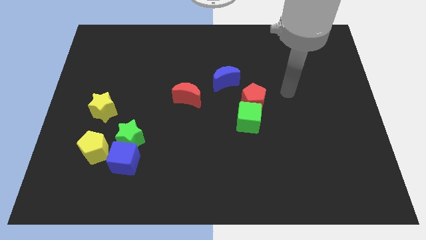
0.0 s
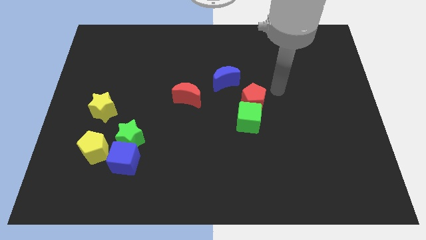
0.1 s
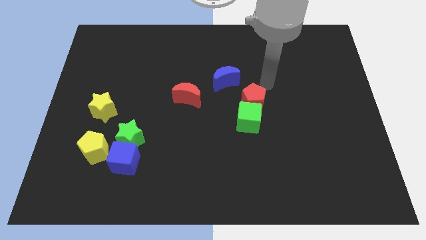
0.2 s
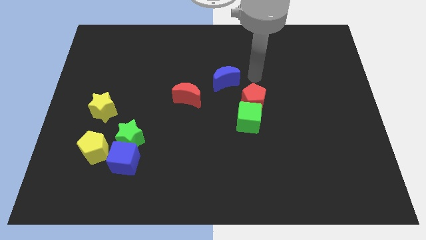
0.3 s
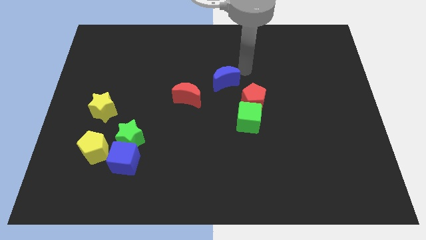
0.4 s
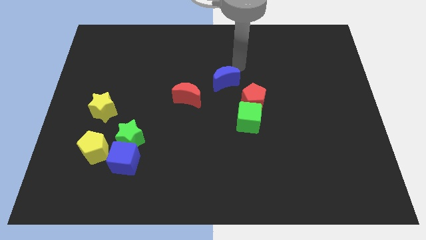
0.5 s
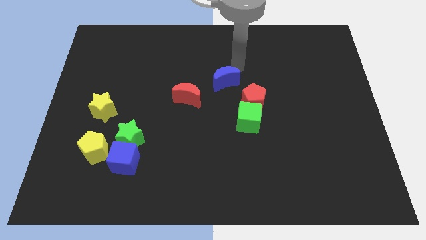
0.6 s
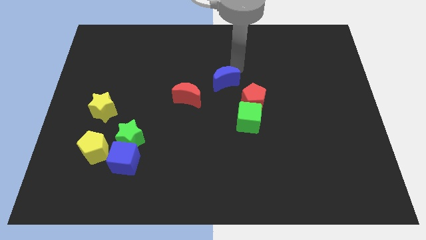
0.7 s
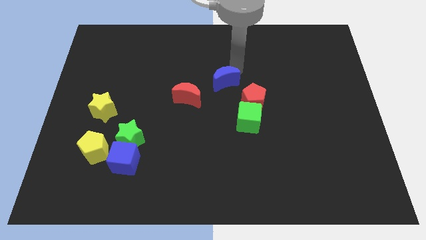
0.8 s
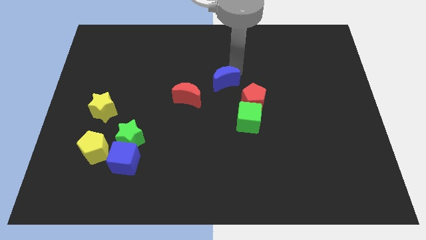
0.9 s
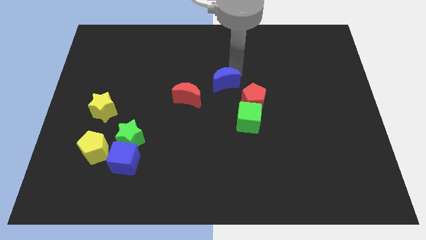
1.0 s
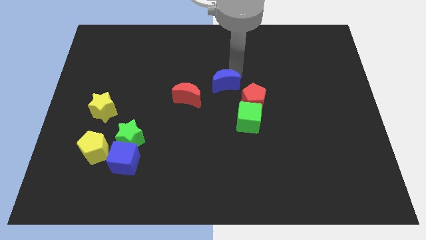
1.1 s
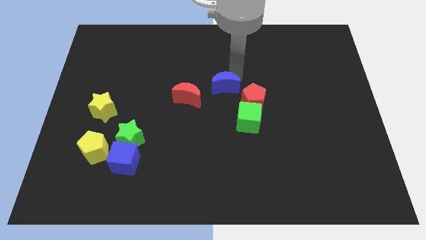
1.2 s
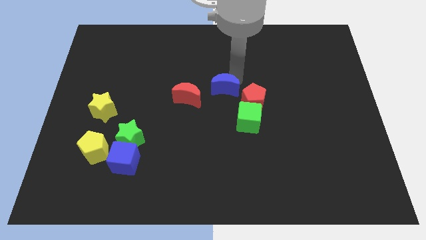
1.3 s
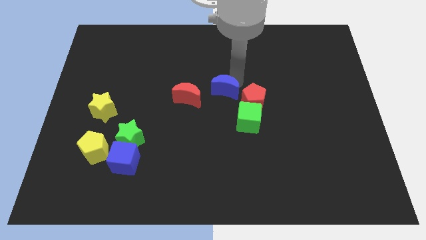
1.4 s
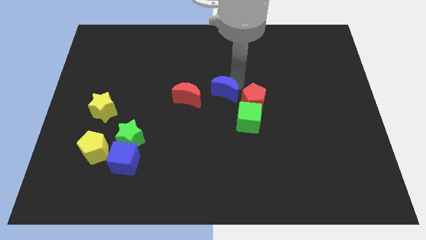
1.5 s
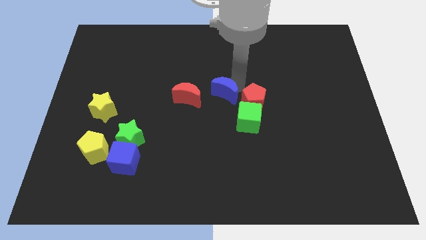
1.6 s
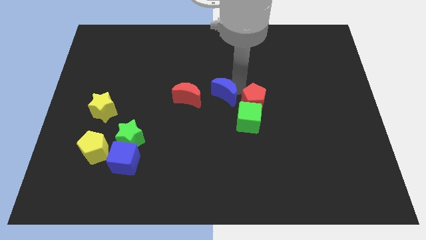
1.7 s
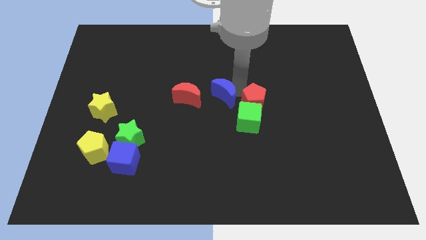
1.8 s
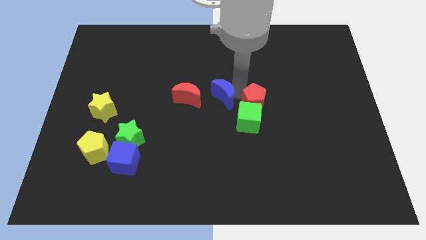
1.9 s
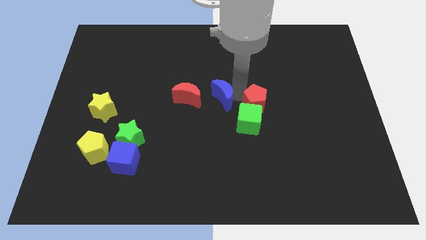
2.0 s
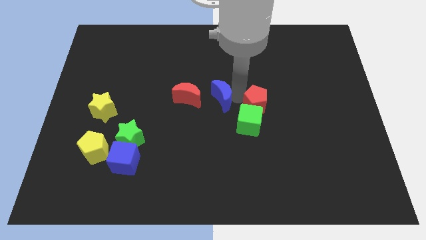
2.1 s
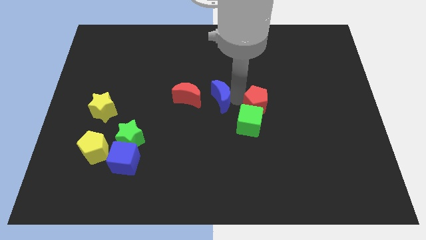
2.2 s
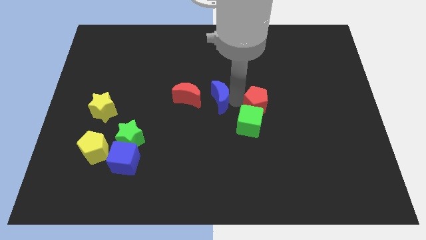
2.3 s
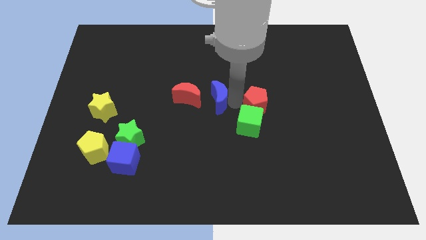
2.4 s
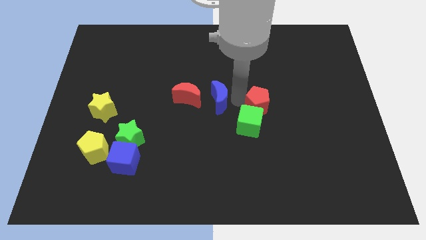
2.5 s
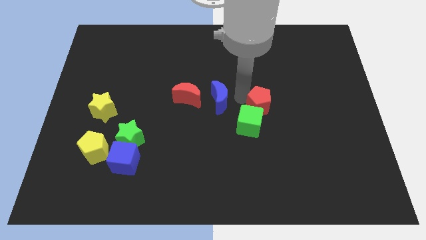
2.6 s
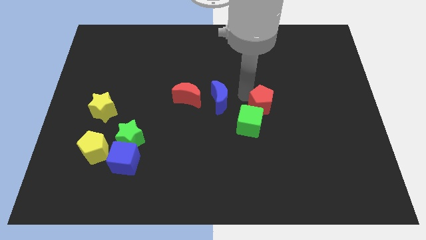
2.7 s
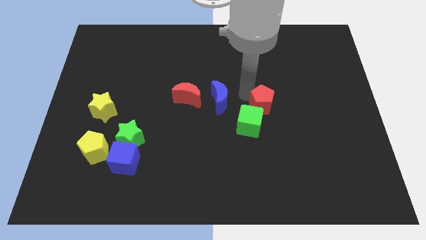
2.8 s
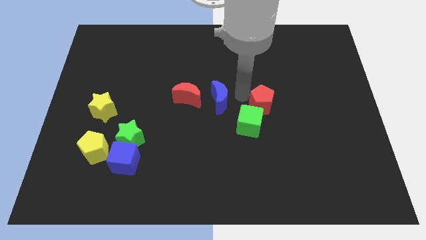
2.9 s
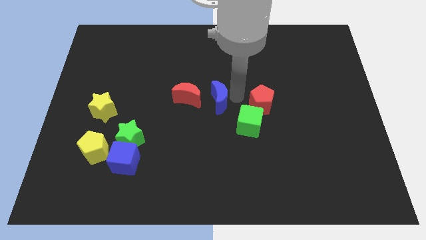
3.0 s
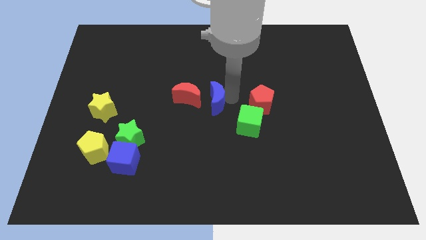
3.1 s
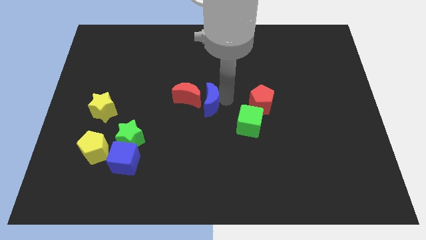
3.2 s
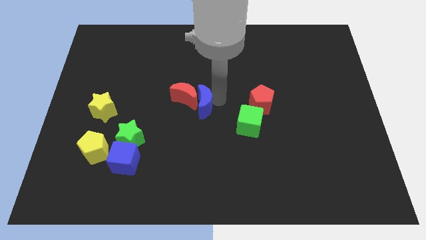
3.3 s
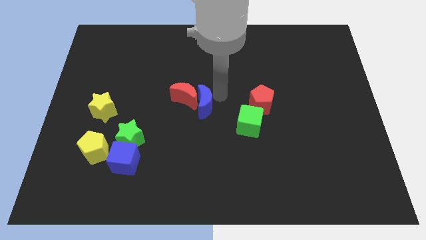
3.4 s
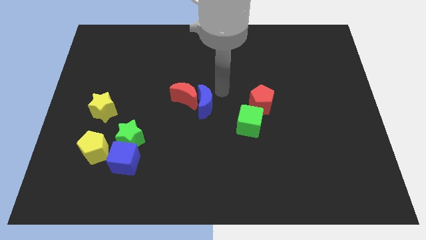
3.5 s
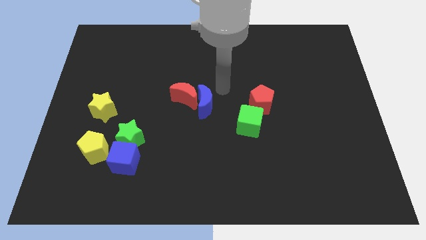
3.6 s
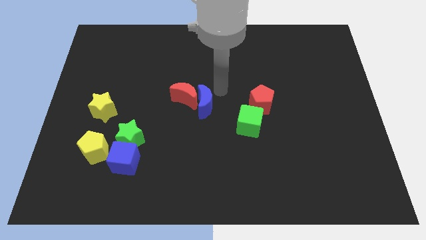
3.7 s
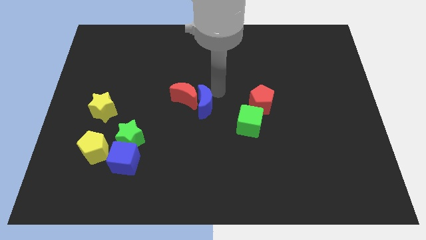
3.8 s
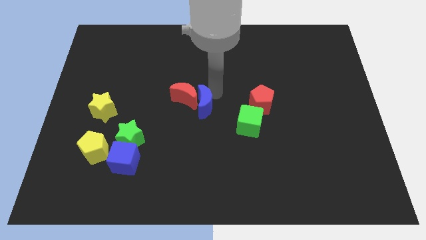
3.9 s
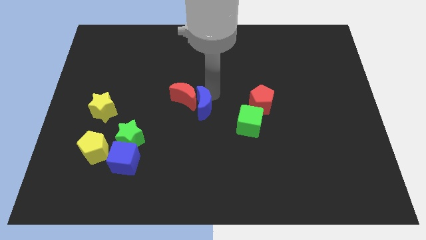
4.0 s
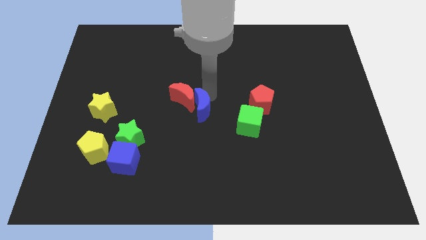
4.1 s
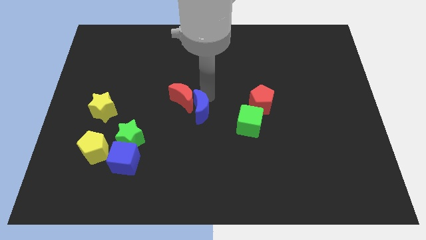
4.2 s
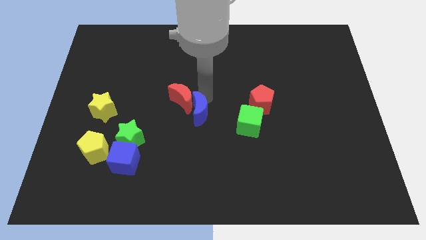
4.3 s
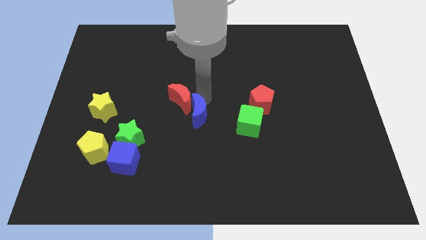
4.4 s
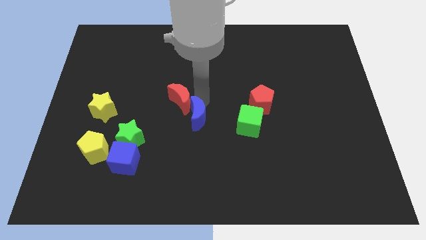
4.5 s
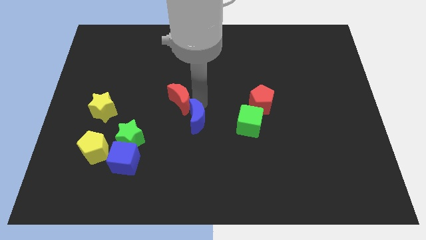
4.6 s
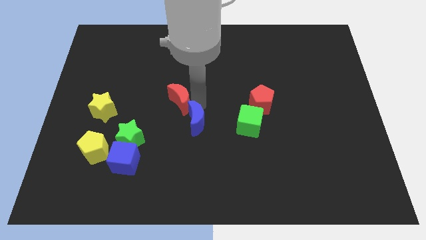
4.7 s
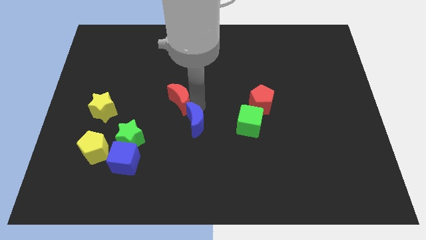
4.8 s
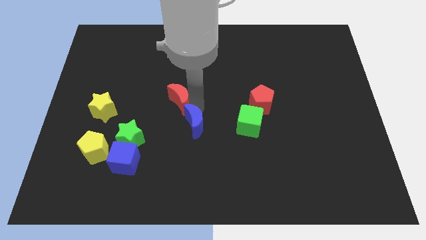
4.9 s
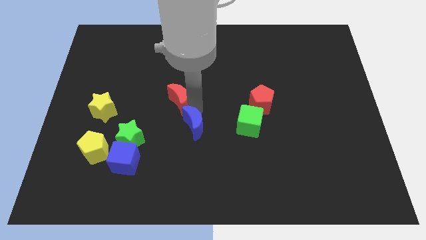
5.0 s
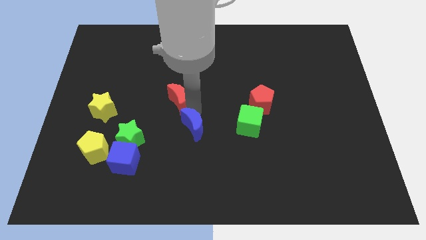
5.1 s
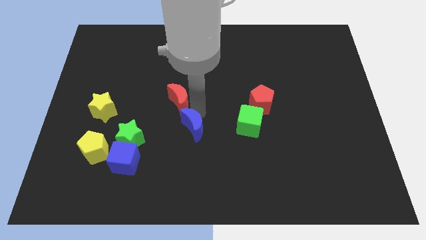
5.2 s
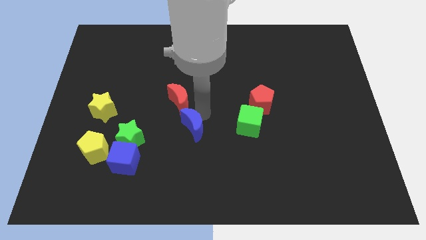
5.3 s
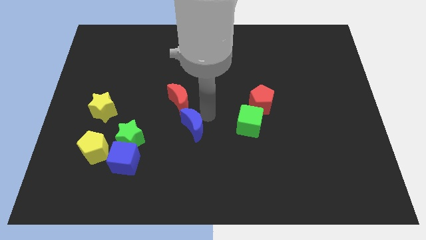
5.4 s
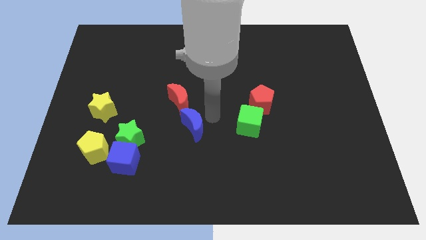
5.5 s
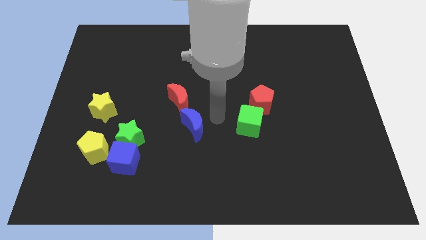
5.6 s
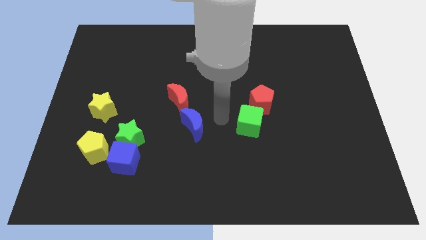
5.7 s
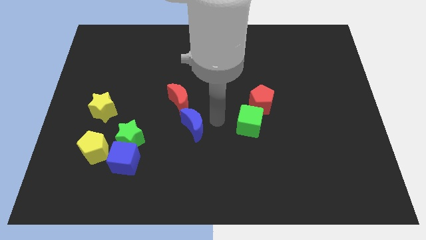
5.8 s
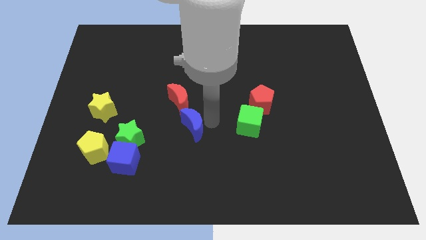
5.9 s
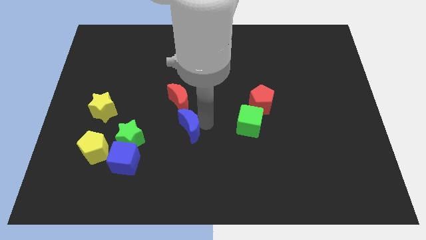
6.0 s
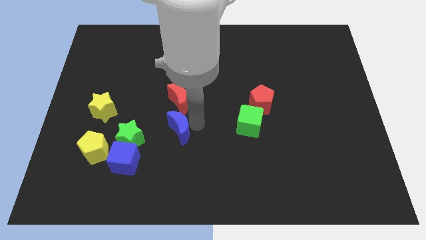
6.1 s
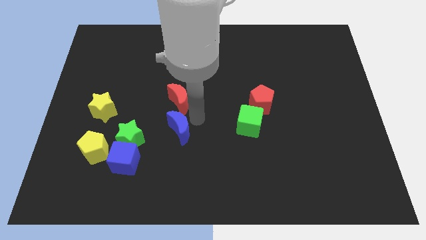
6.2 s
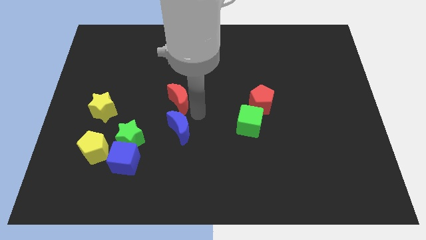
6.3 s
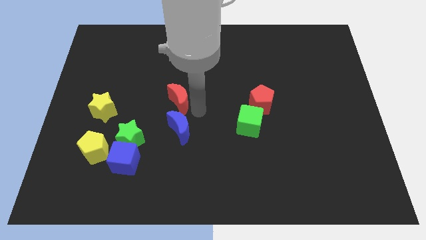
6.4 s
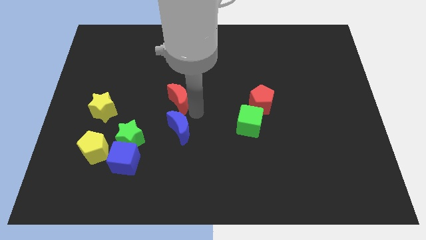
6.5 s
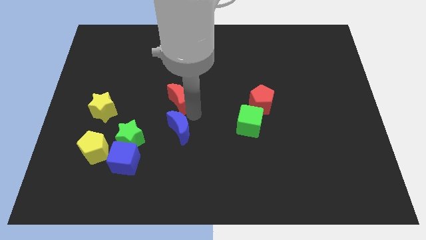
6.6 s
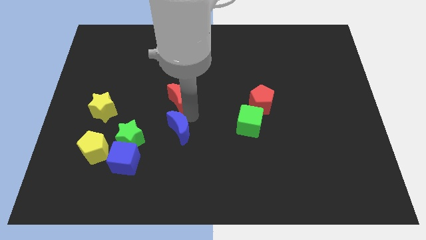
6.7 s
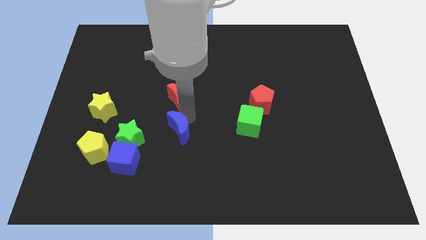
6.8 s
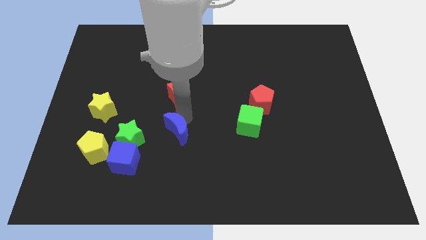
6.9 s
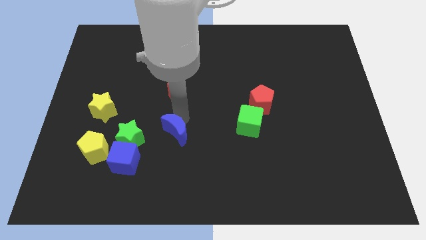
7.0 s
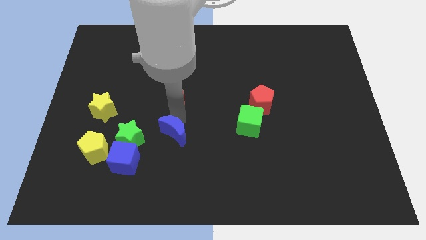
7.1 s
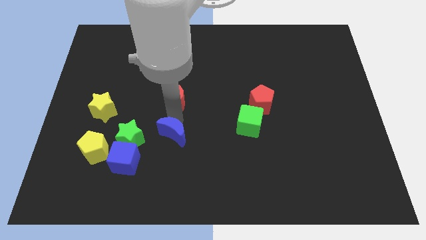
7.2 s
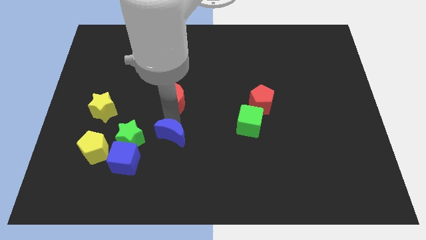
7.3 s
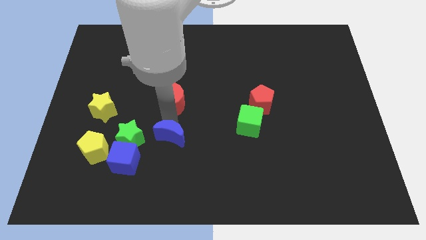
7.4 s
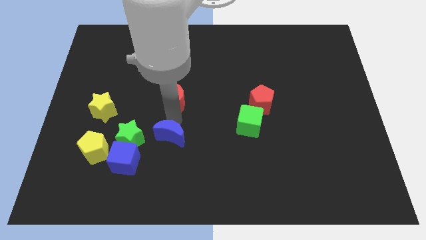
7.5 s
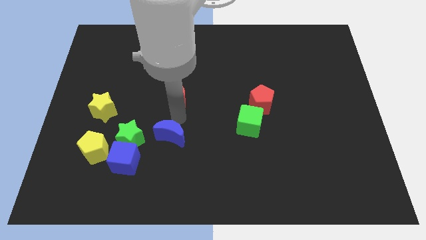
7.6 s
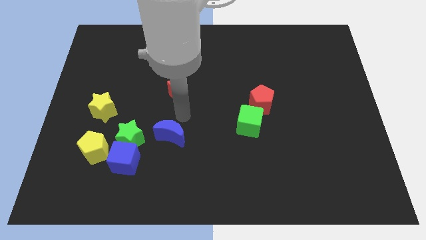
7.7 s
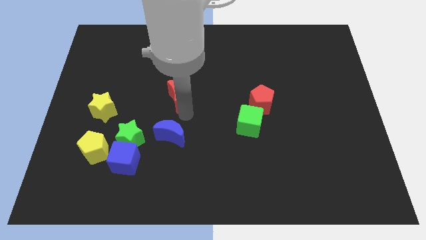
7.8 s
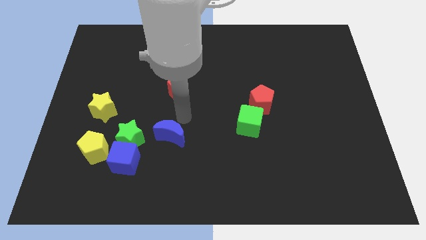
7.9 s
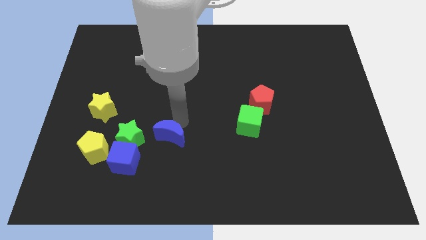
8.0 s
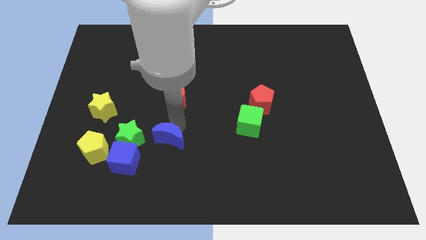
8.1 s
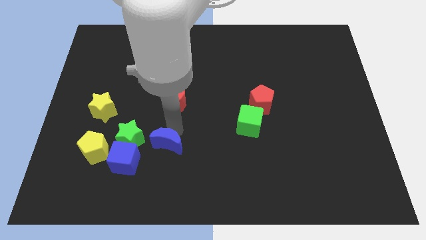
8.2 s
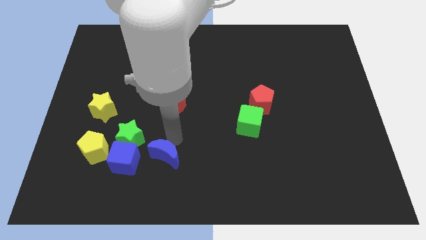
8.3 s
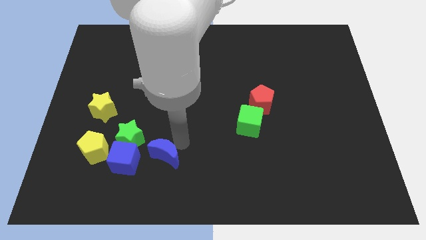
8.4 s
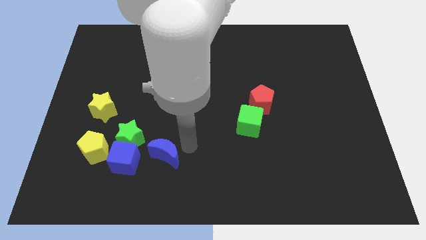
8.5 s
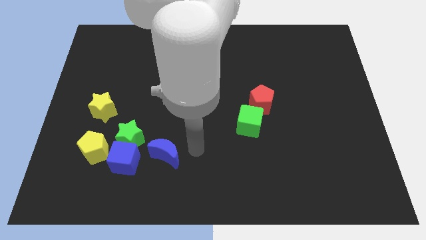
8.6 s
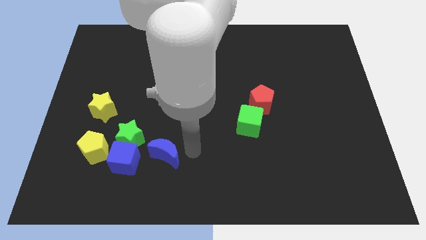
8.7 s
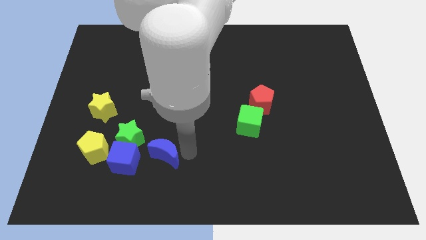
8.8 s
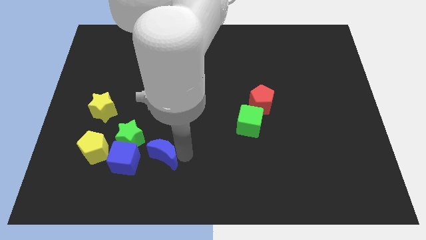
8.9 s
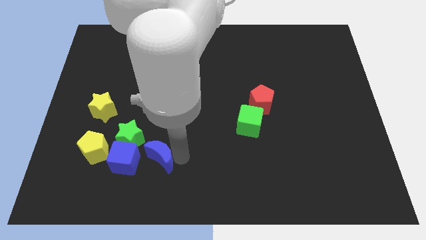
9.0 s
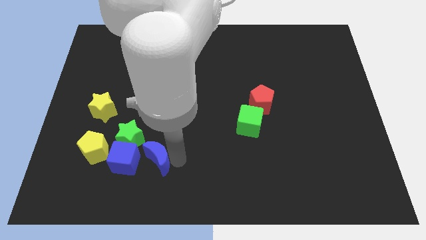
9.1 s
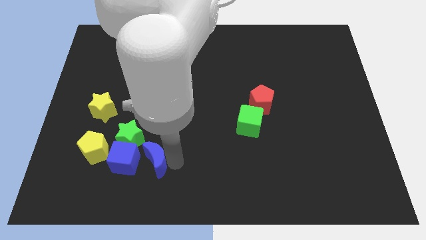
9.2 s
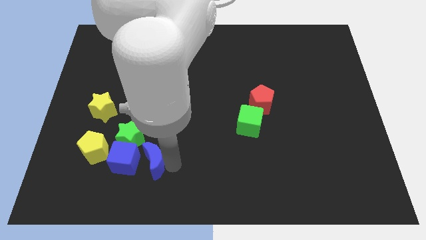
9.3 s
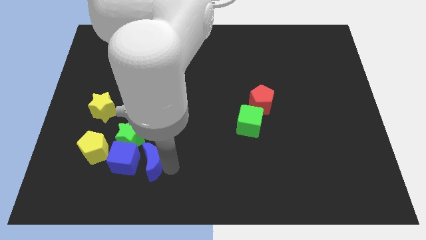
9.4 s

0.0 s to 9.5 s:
put the blue moon close to the blue cube
